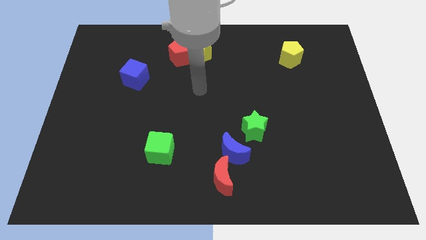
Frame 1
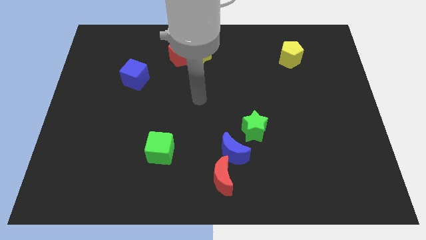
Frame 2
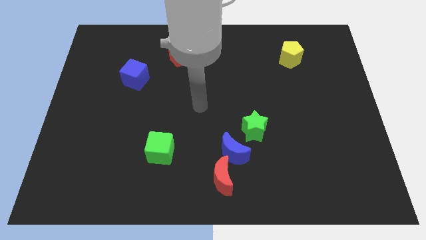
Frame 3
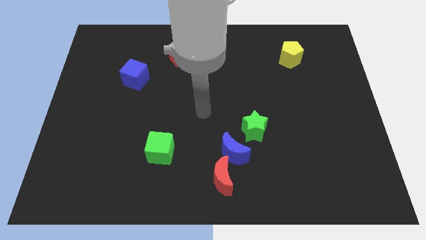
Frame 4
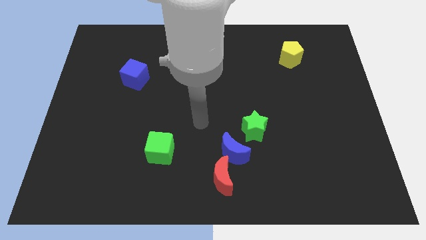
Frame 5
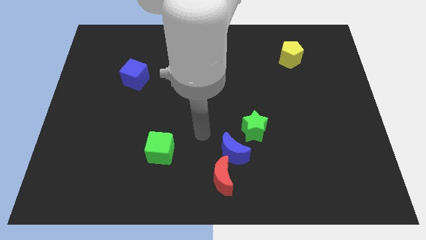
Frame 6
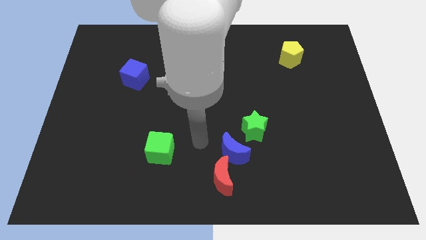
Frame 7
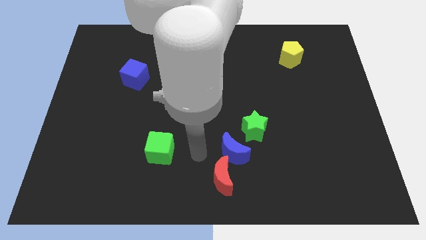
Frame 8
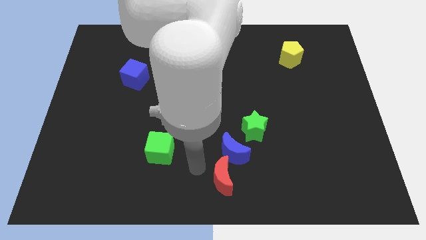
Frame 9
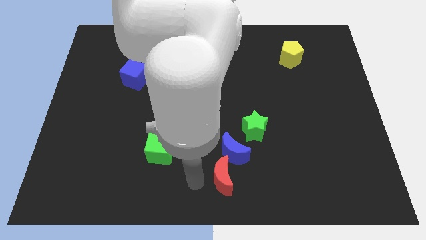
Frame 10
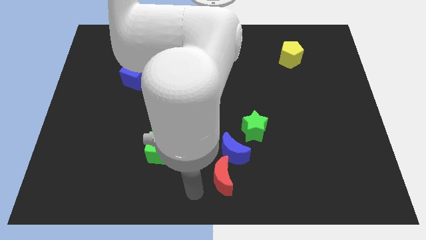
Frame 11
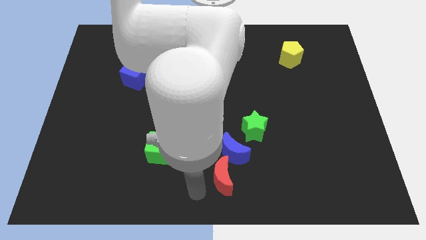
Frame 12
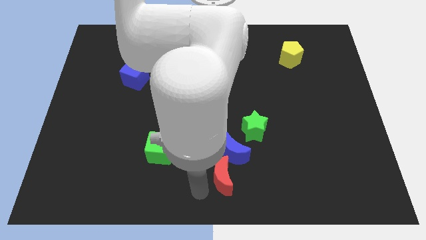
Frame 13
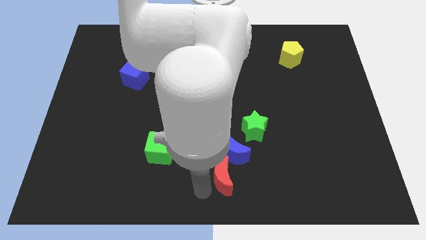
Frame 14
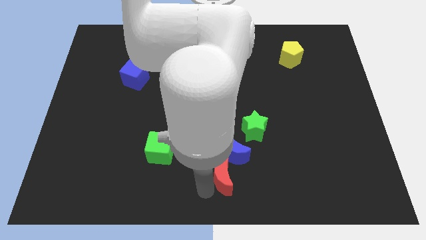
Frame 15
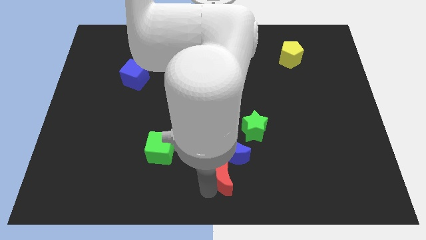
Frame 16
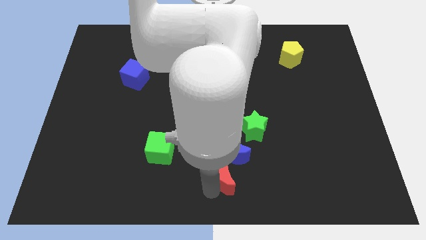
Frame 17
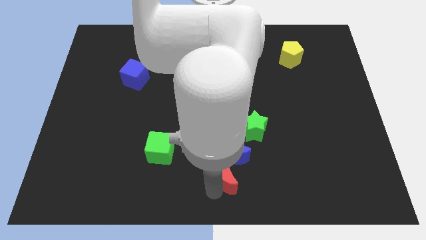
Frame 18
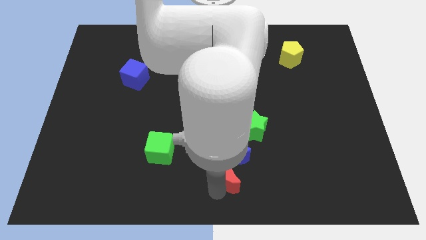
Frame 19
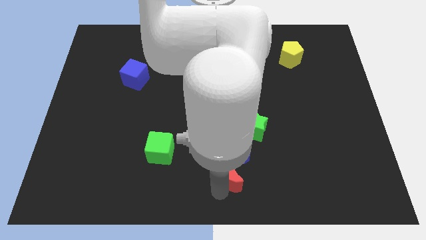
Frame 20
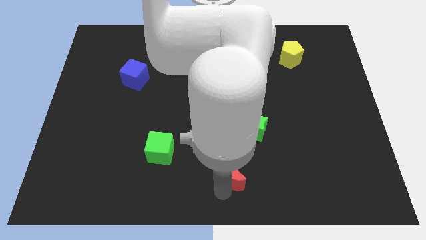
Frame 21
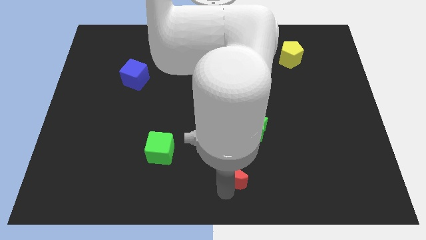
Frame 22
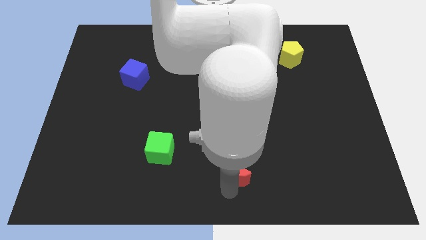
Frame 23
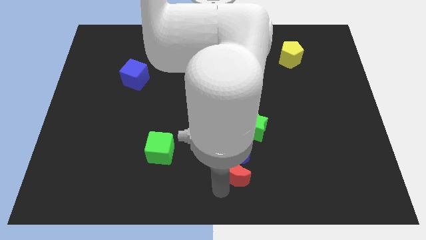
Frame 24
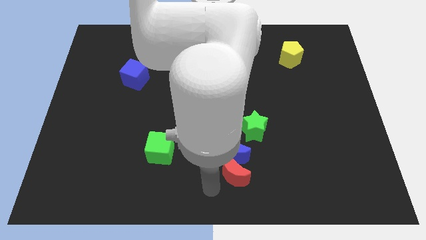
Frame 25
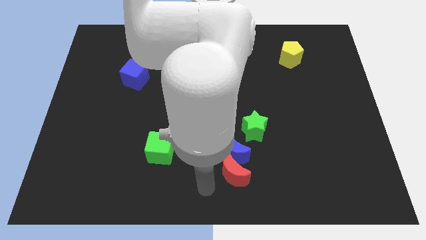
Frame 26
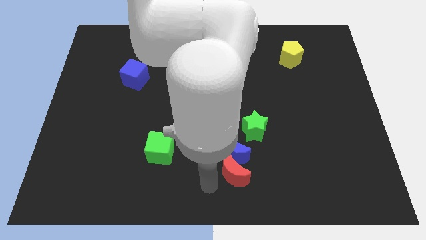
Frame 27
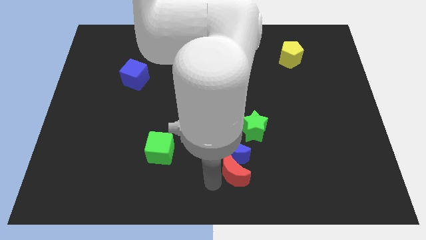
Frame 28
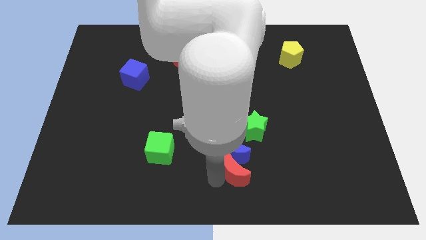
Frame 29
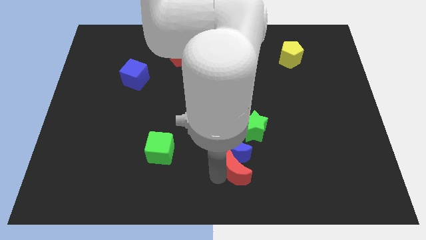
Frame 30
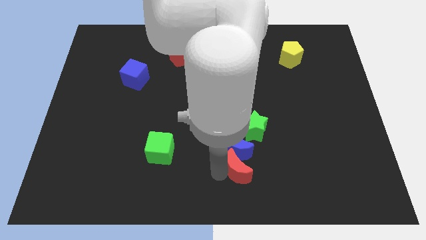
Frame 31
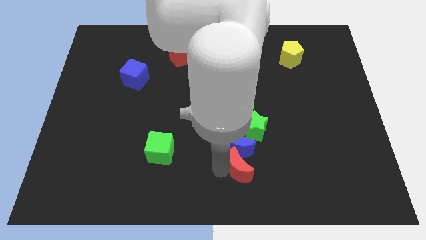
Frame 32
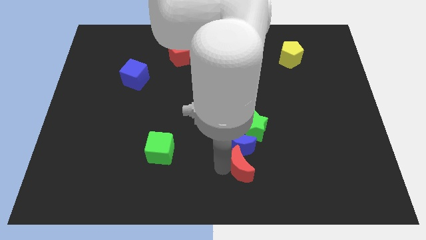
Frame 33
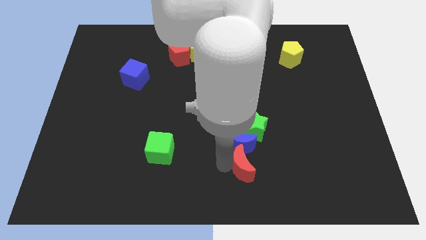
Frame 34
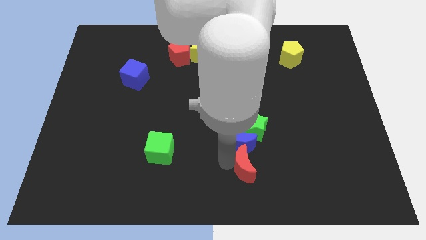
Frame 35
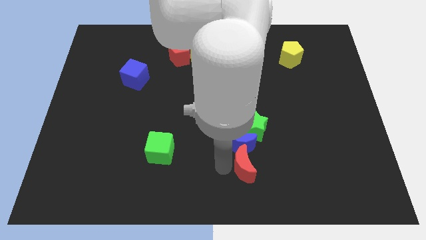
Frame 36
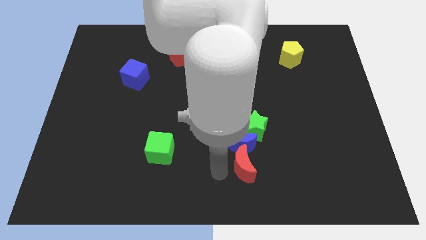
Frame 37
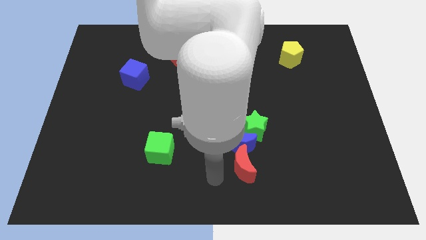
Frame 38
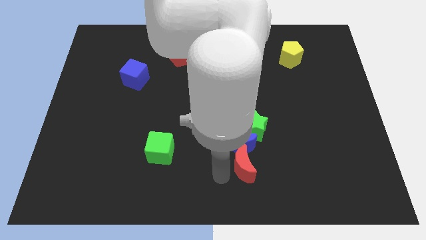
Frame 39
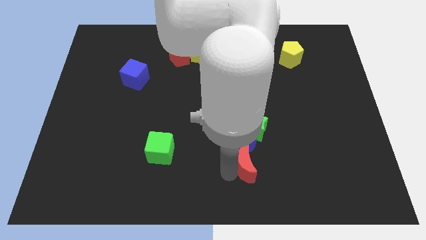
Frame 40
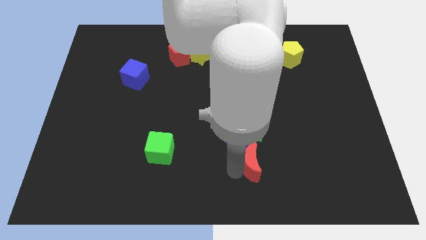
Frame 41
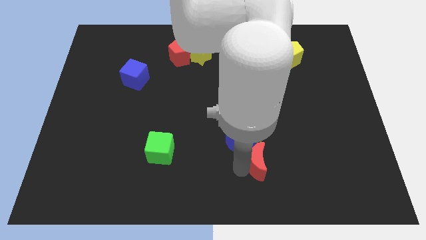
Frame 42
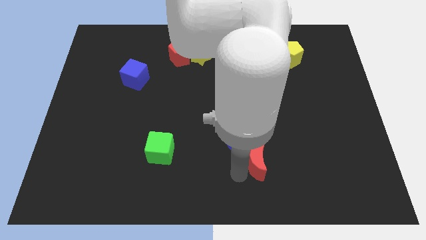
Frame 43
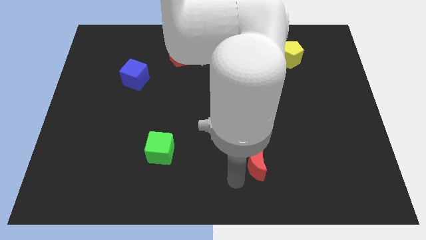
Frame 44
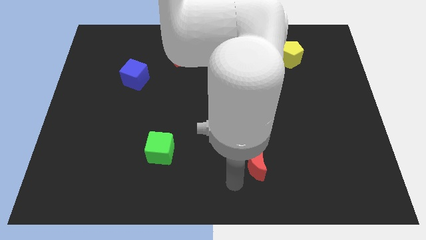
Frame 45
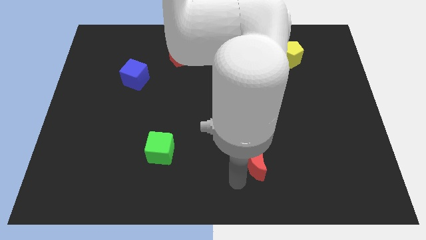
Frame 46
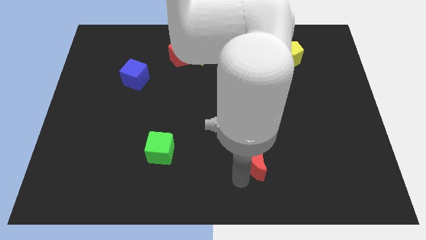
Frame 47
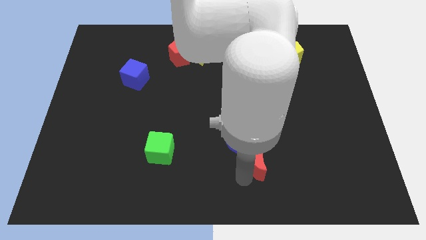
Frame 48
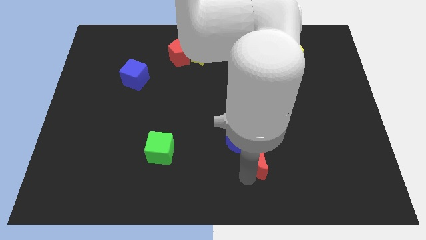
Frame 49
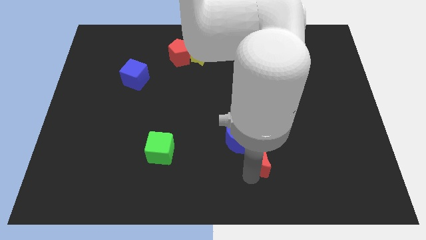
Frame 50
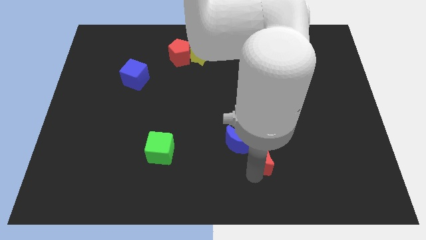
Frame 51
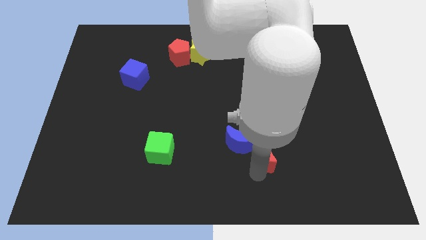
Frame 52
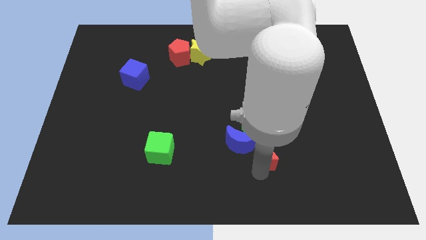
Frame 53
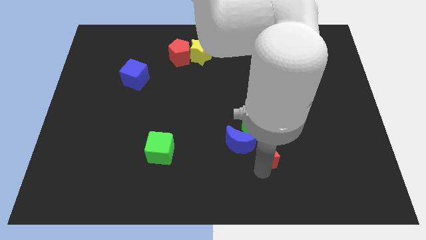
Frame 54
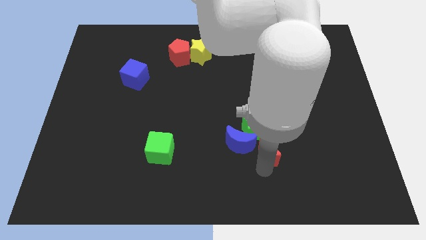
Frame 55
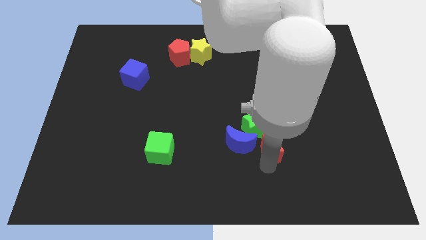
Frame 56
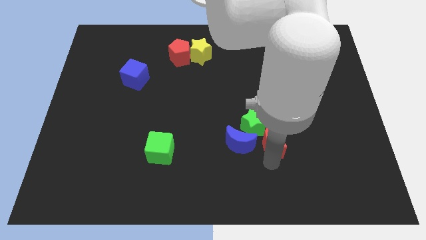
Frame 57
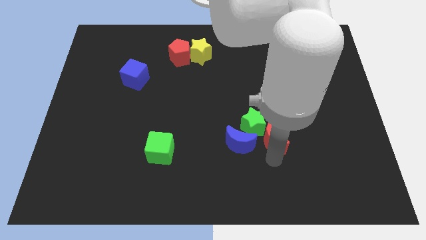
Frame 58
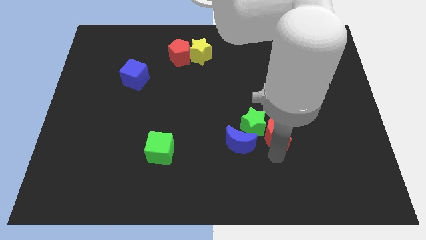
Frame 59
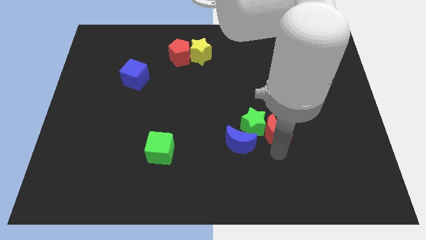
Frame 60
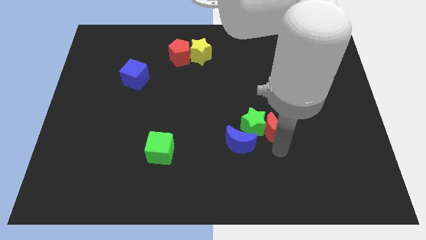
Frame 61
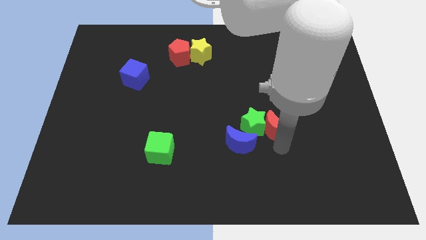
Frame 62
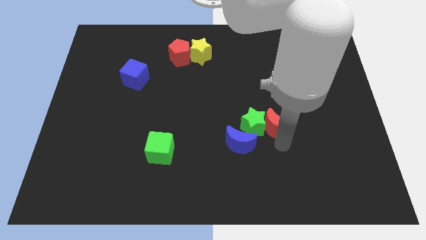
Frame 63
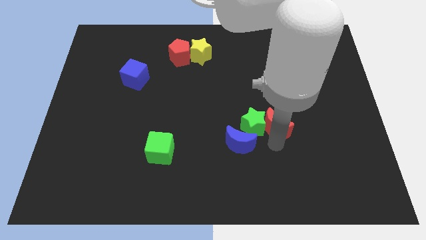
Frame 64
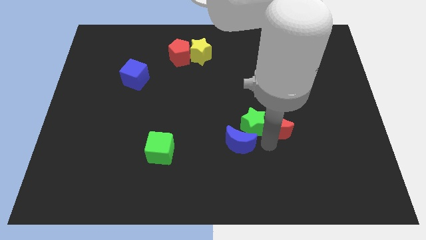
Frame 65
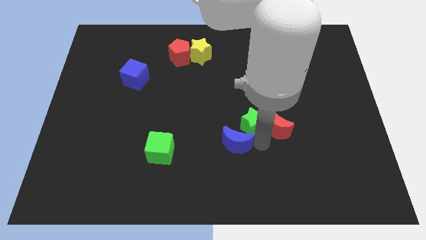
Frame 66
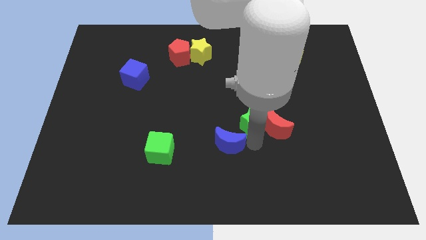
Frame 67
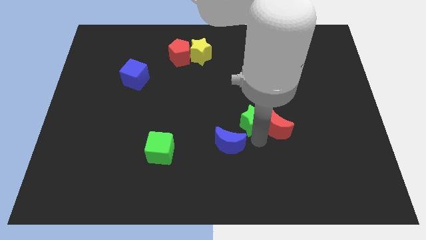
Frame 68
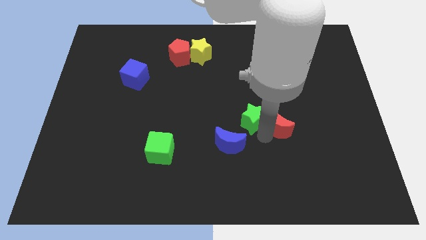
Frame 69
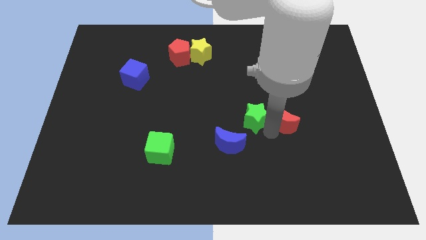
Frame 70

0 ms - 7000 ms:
push the red moon upwards and right diagonally

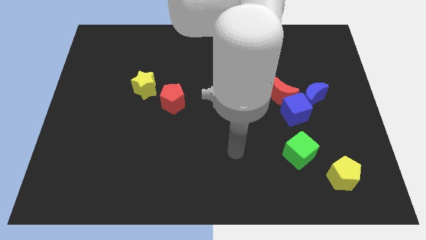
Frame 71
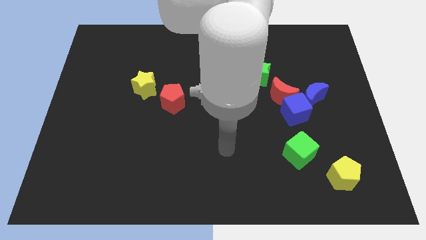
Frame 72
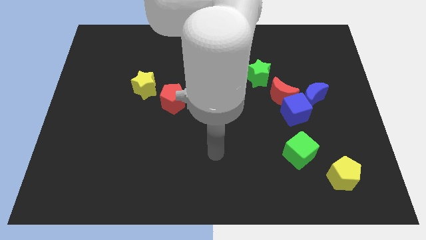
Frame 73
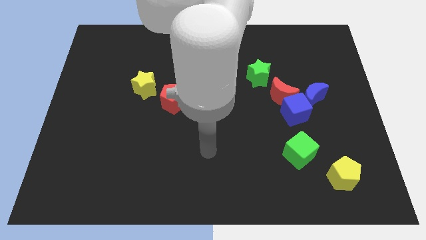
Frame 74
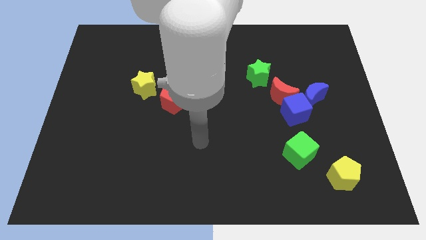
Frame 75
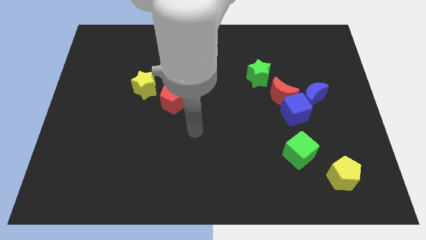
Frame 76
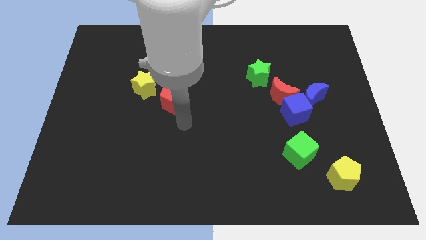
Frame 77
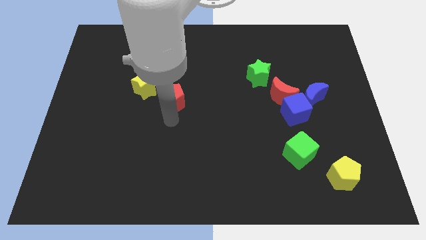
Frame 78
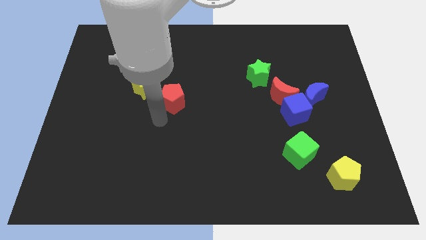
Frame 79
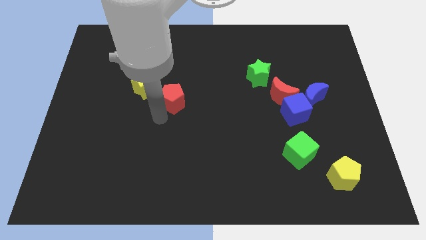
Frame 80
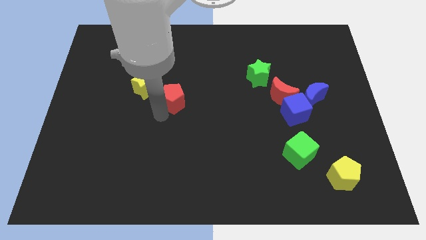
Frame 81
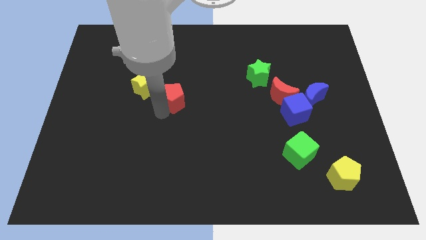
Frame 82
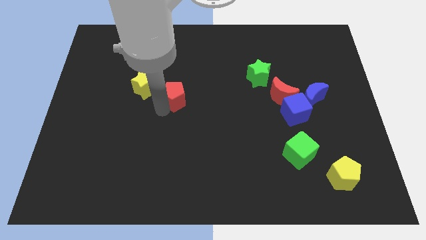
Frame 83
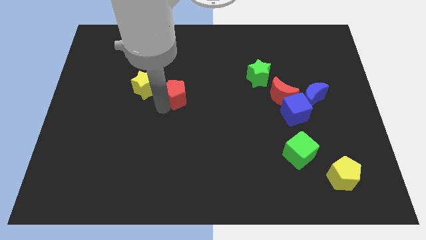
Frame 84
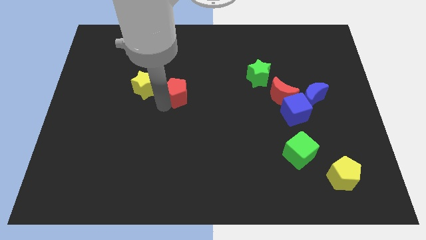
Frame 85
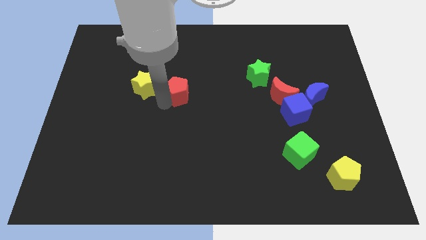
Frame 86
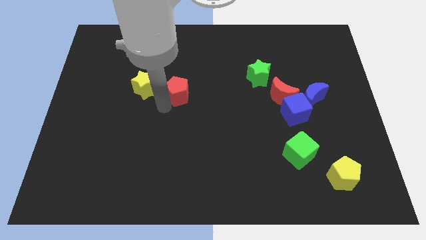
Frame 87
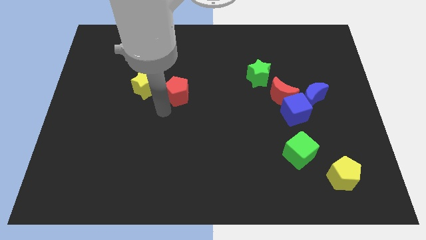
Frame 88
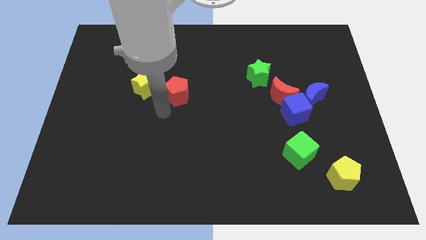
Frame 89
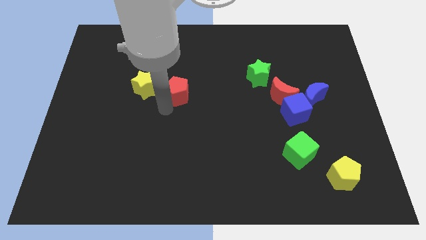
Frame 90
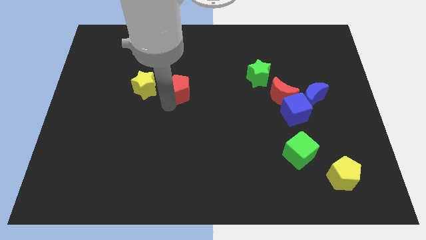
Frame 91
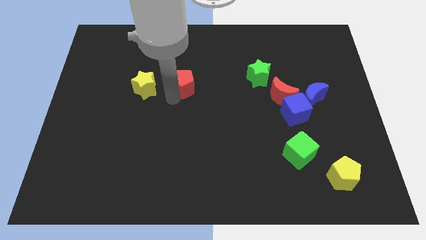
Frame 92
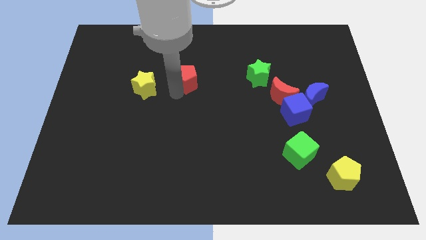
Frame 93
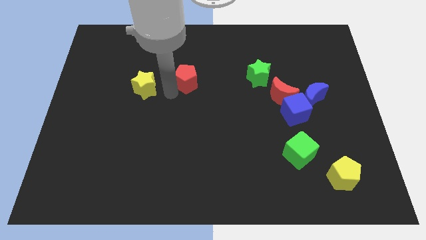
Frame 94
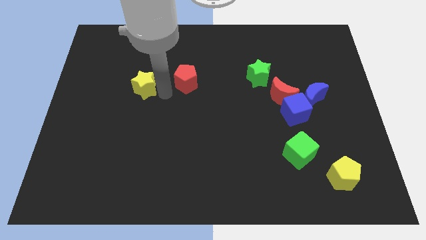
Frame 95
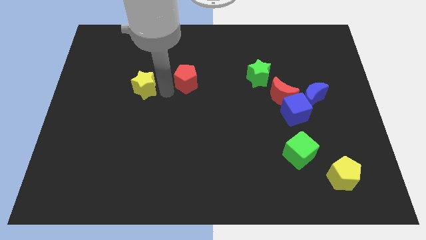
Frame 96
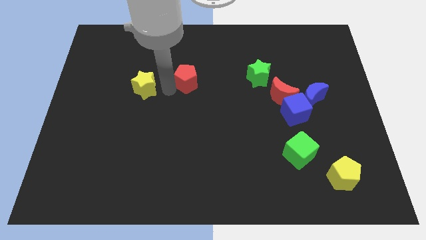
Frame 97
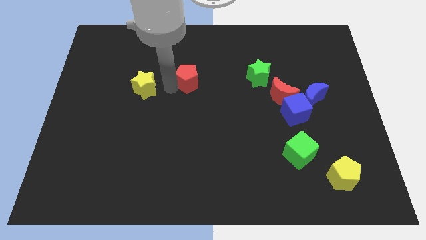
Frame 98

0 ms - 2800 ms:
slightly move the red pentagon up and to the right
